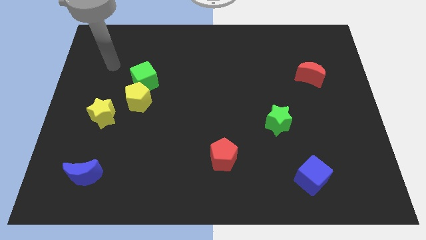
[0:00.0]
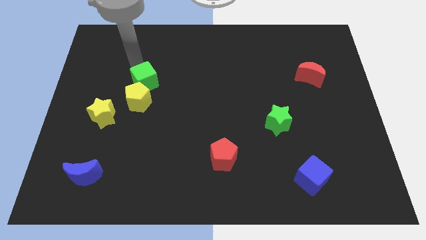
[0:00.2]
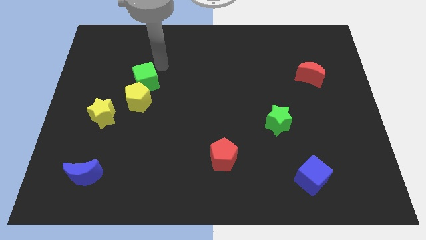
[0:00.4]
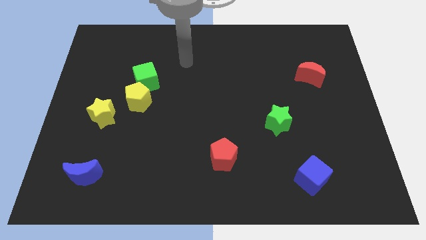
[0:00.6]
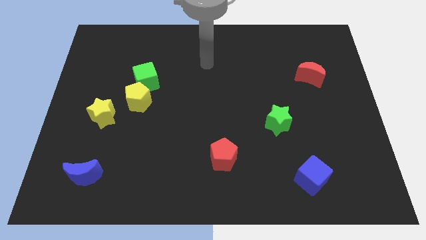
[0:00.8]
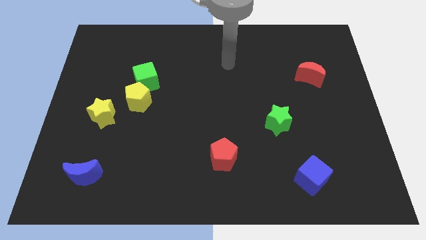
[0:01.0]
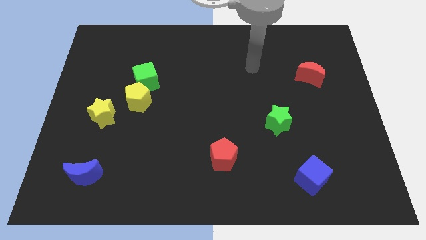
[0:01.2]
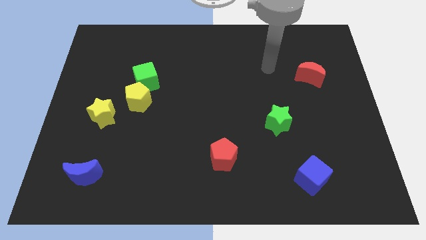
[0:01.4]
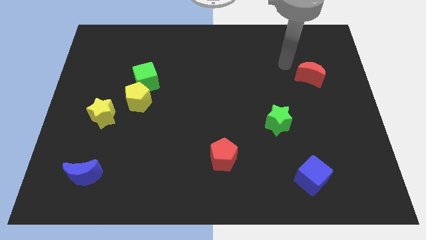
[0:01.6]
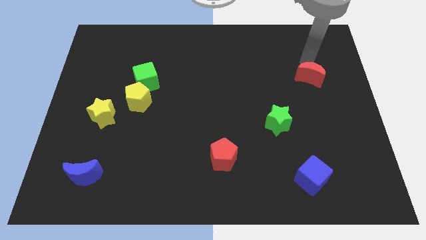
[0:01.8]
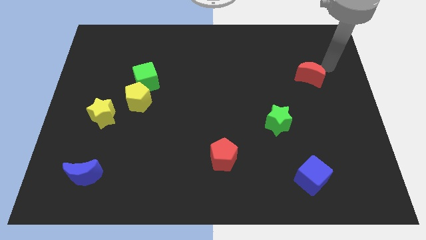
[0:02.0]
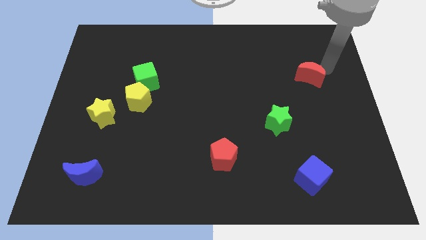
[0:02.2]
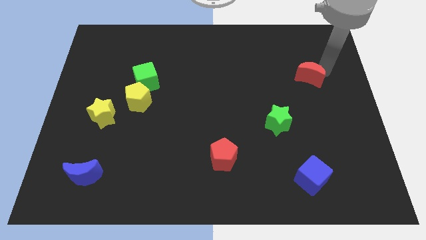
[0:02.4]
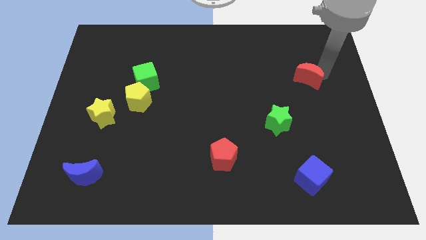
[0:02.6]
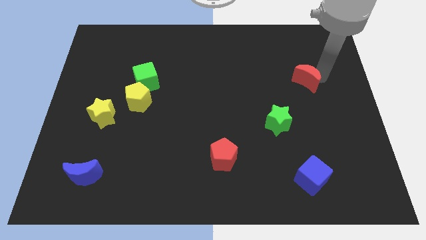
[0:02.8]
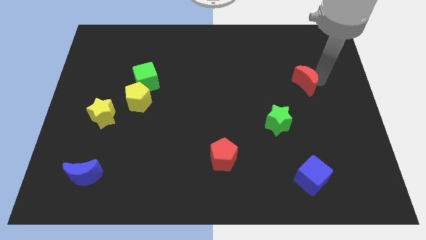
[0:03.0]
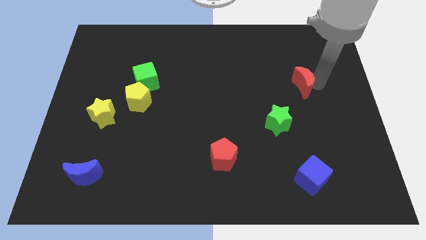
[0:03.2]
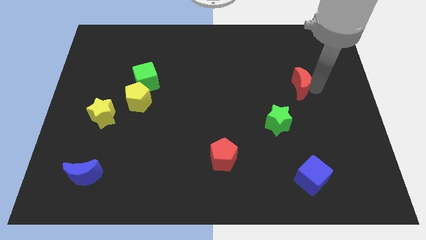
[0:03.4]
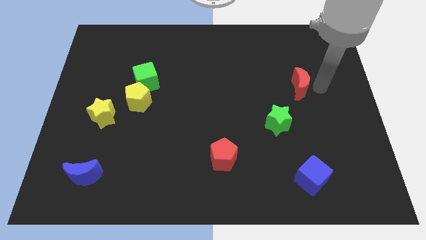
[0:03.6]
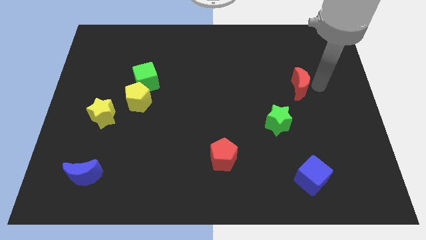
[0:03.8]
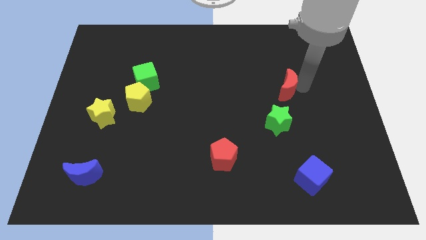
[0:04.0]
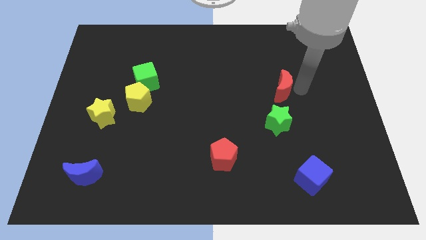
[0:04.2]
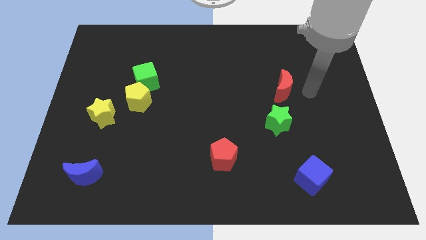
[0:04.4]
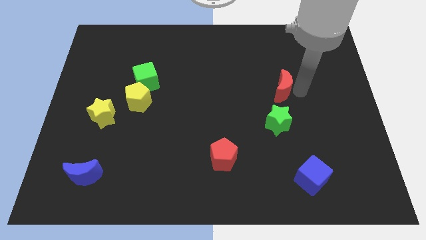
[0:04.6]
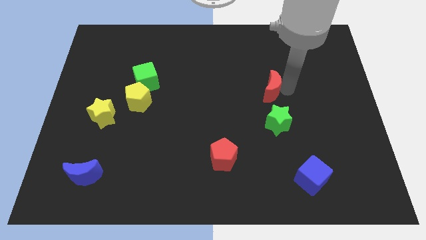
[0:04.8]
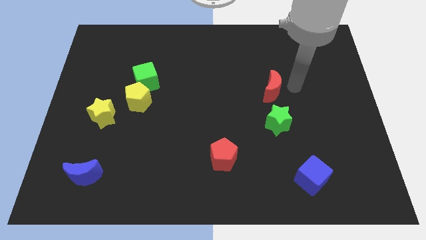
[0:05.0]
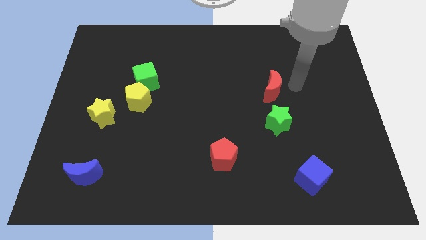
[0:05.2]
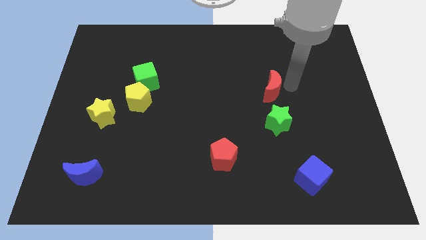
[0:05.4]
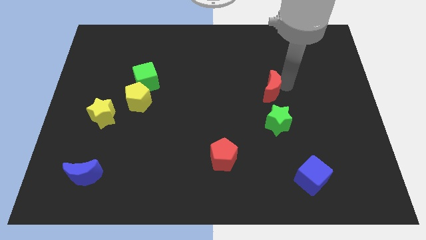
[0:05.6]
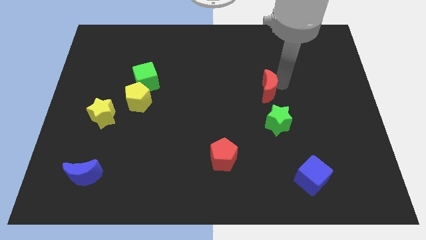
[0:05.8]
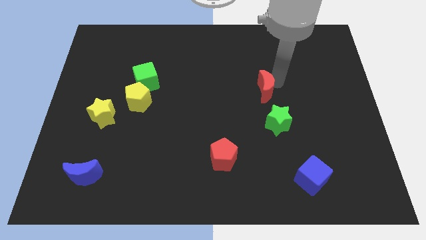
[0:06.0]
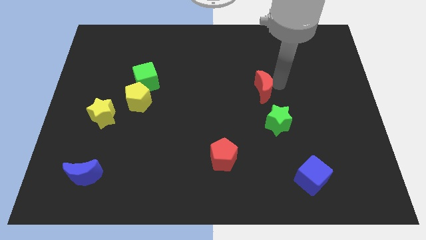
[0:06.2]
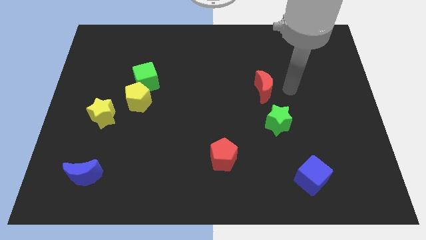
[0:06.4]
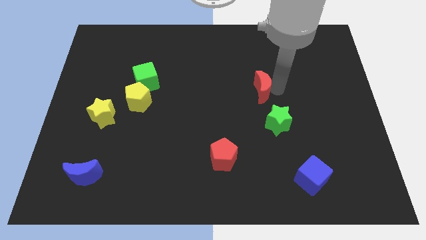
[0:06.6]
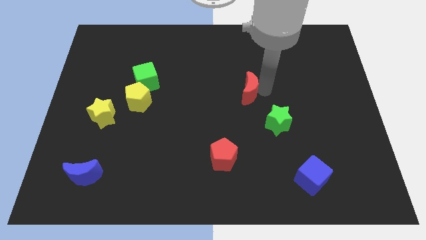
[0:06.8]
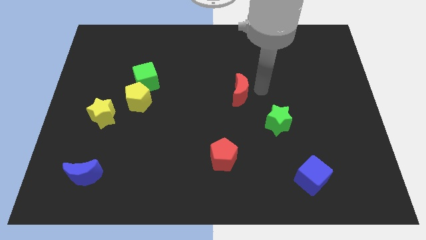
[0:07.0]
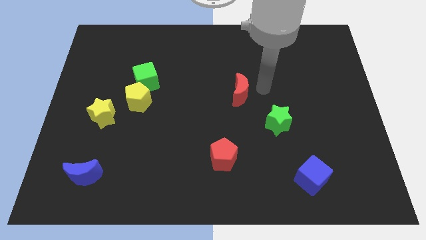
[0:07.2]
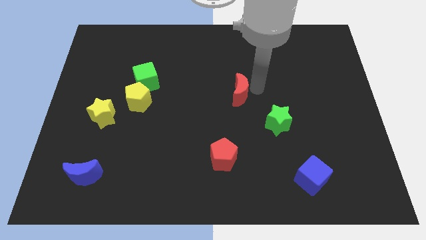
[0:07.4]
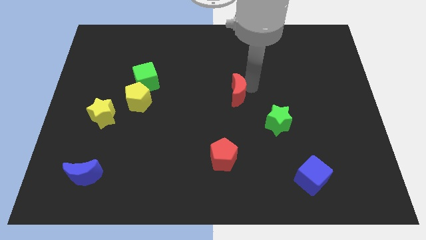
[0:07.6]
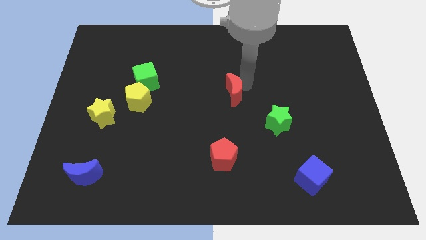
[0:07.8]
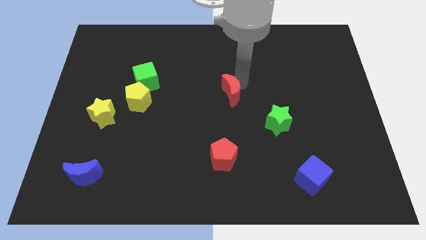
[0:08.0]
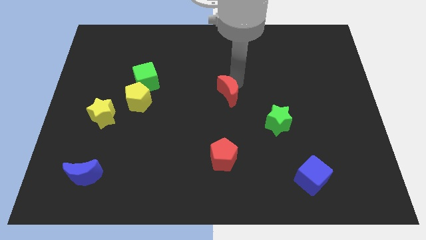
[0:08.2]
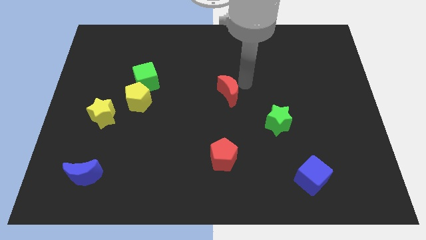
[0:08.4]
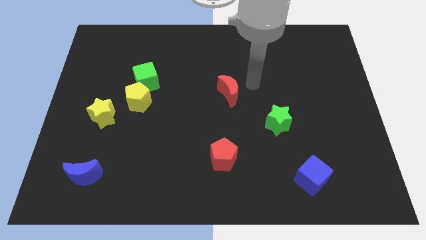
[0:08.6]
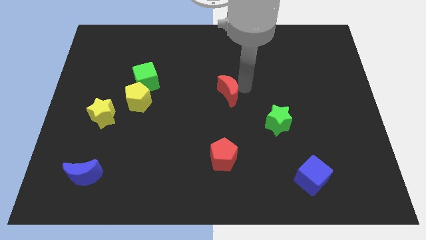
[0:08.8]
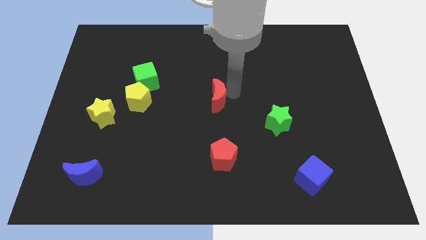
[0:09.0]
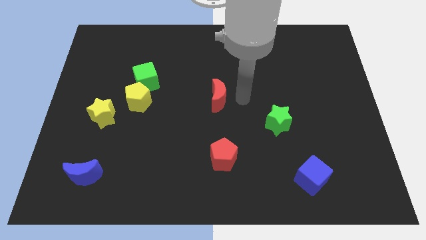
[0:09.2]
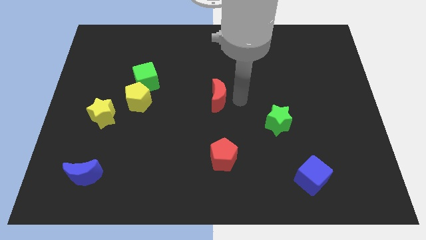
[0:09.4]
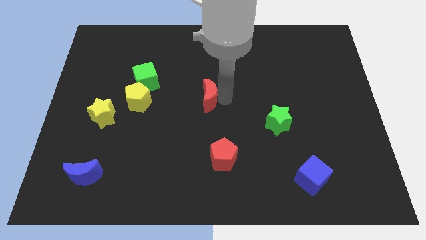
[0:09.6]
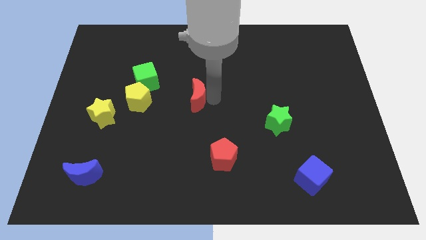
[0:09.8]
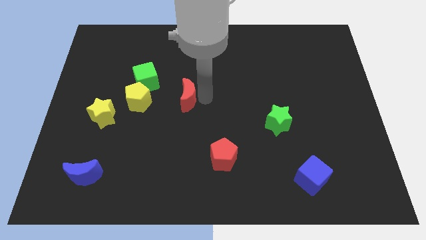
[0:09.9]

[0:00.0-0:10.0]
push the red moon diagonally down and to the right of the green cube

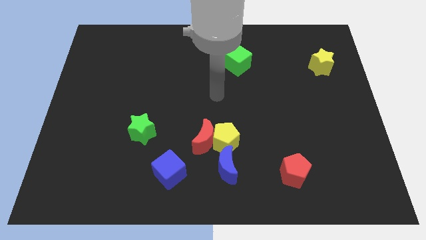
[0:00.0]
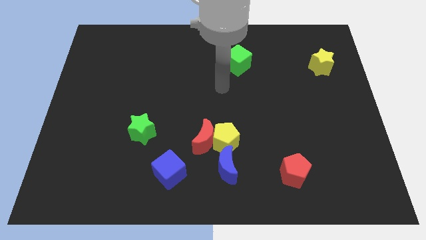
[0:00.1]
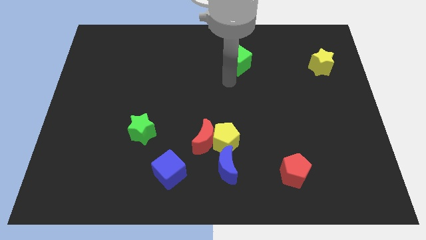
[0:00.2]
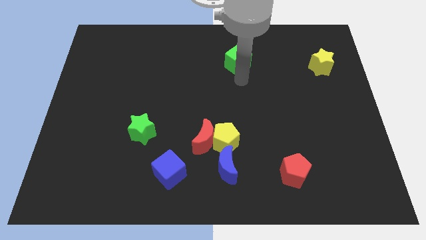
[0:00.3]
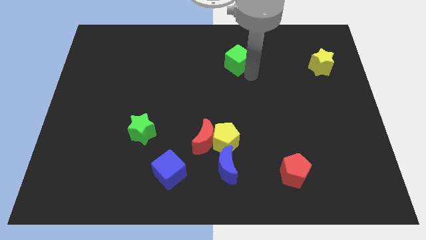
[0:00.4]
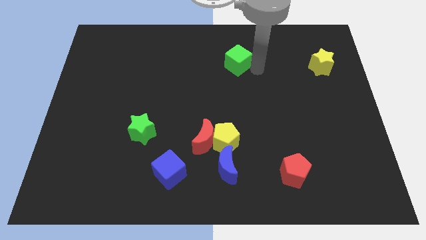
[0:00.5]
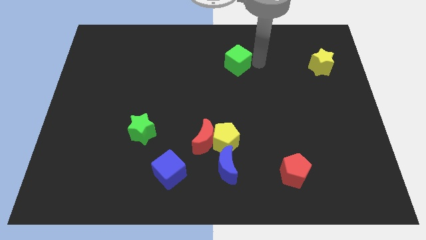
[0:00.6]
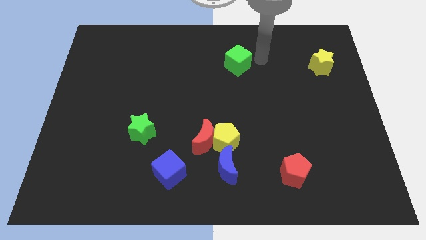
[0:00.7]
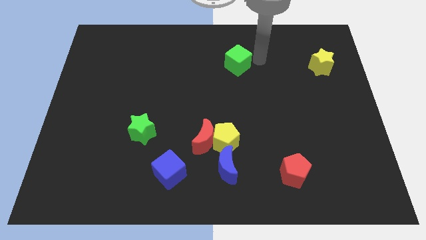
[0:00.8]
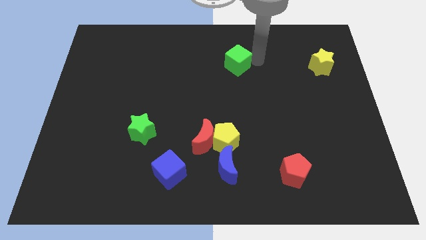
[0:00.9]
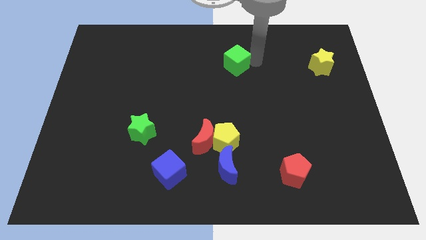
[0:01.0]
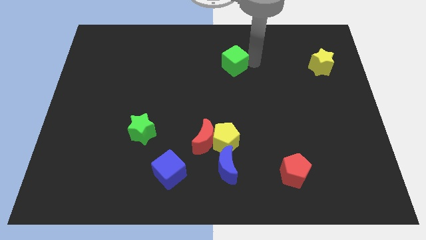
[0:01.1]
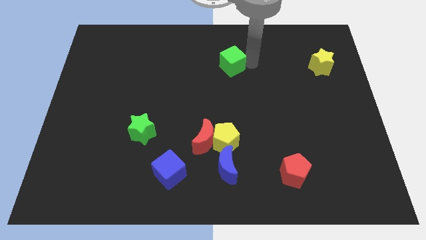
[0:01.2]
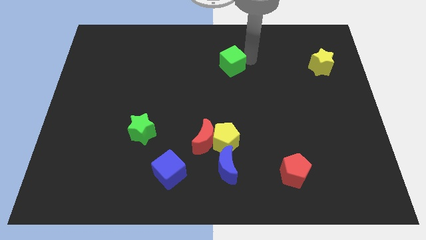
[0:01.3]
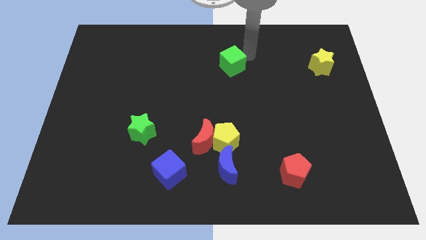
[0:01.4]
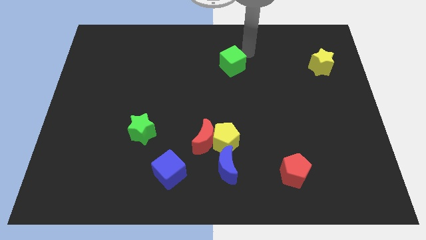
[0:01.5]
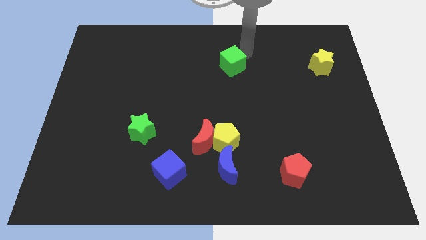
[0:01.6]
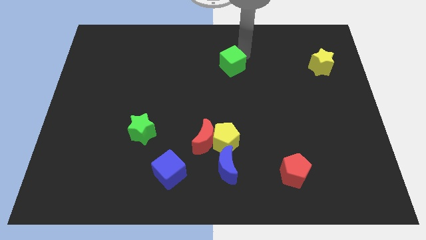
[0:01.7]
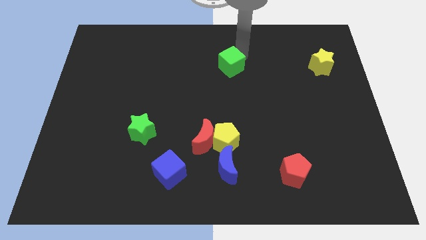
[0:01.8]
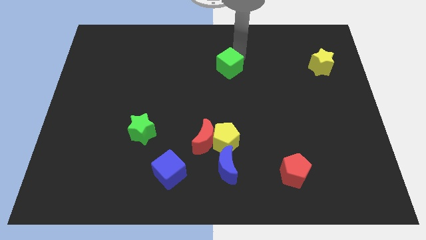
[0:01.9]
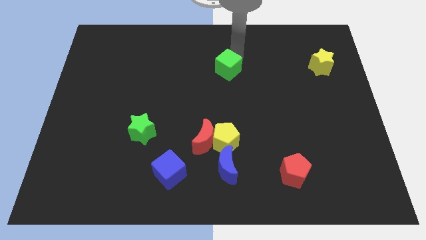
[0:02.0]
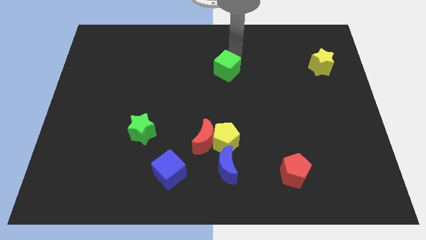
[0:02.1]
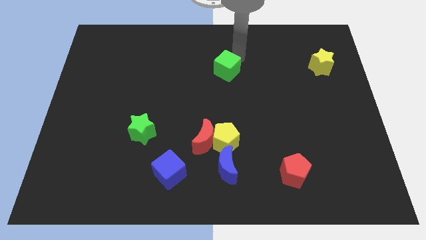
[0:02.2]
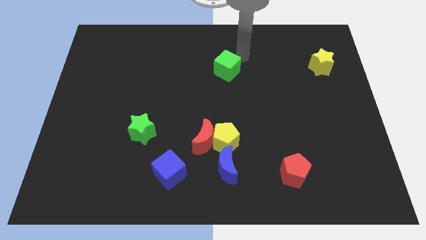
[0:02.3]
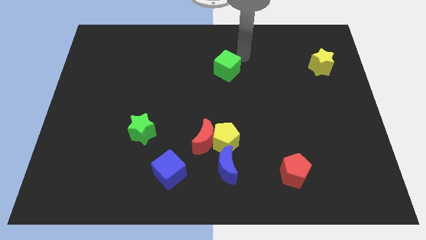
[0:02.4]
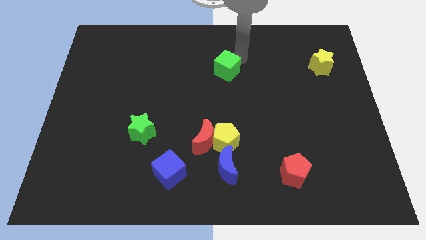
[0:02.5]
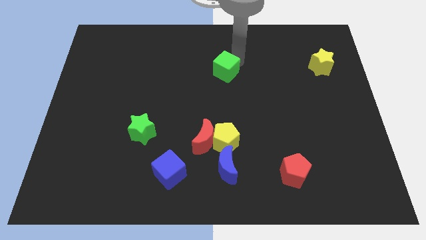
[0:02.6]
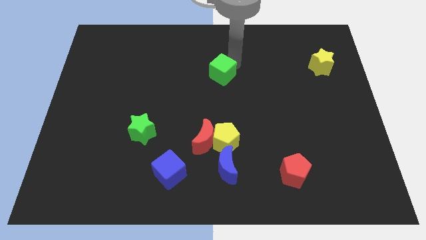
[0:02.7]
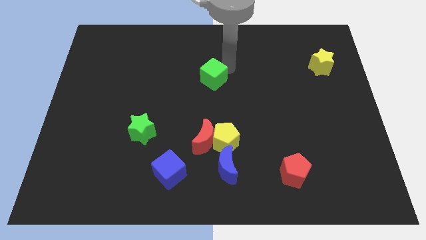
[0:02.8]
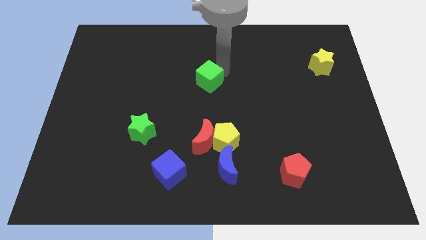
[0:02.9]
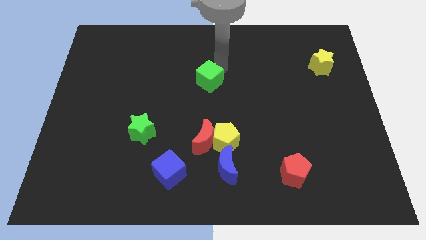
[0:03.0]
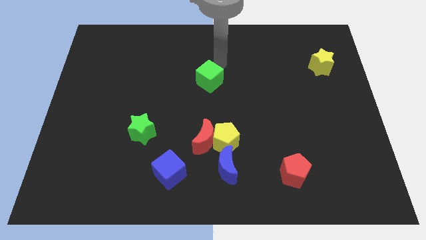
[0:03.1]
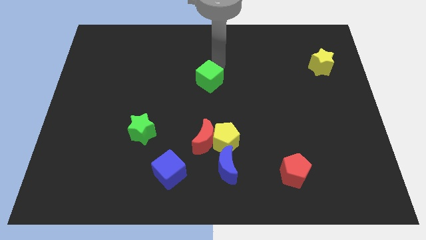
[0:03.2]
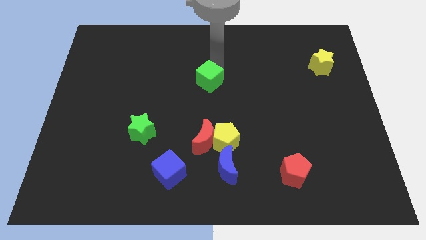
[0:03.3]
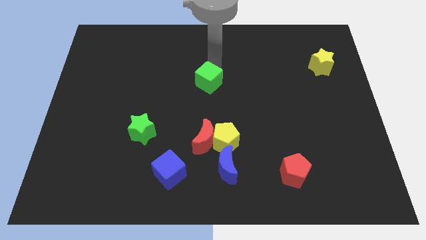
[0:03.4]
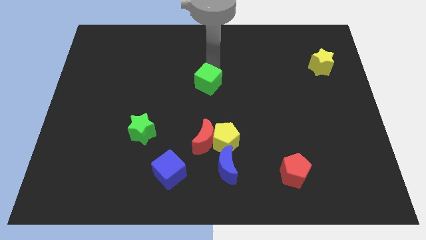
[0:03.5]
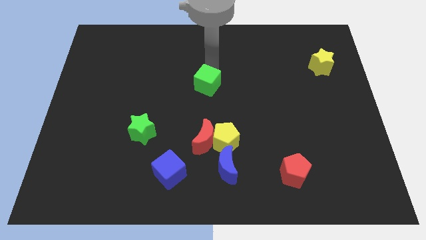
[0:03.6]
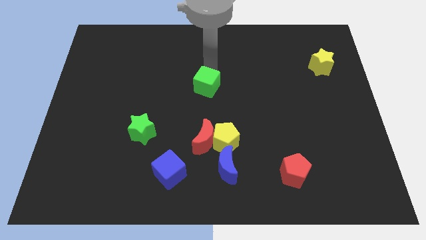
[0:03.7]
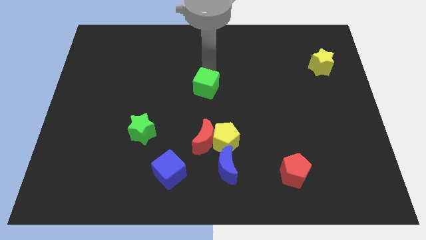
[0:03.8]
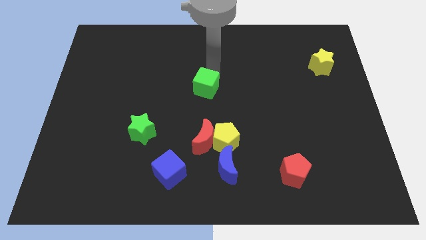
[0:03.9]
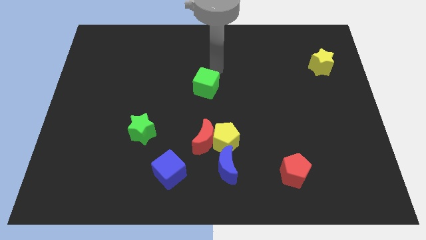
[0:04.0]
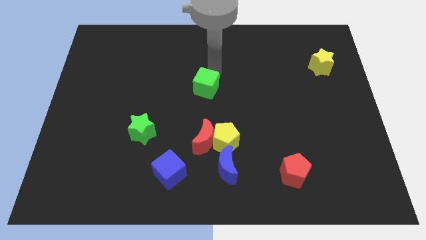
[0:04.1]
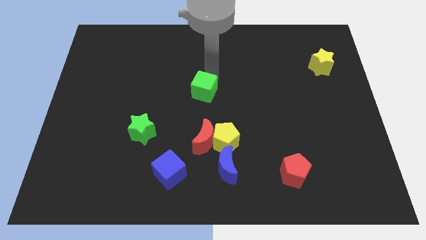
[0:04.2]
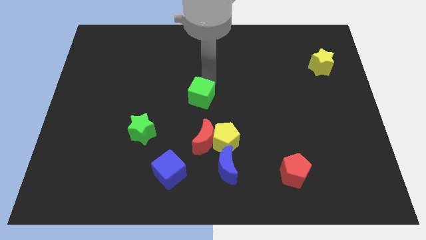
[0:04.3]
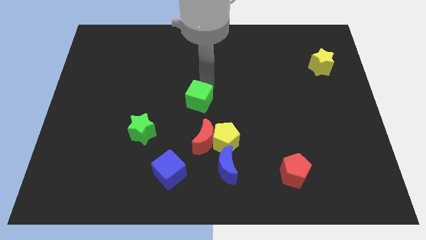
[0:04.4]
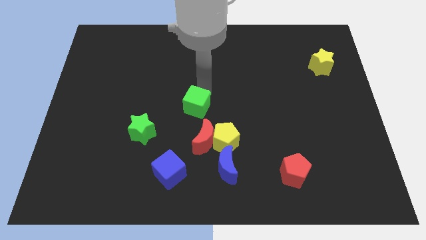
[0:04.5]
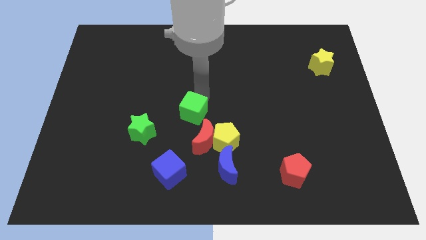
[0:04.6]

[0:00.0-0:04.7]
put the green cube to the top left of the red moon
